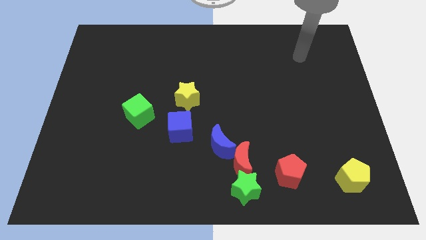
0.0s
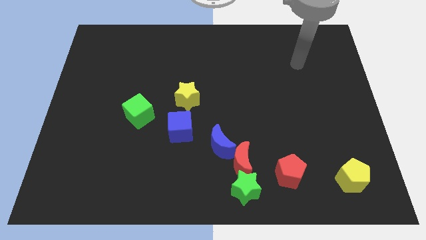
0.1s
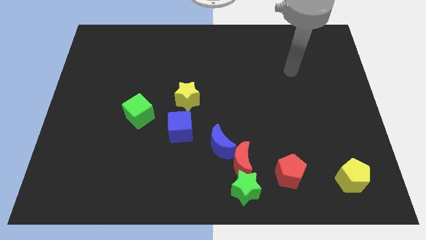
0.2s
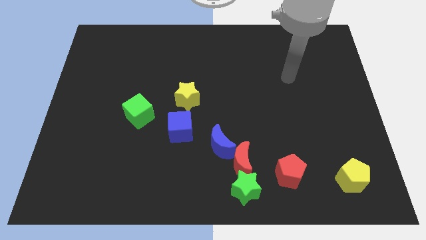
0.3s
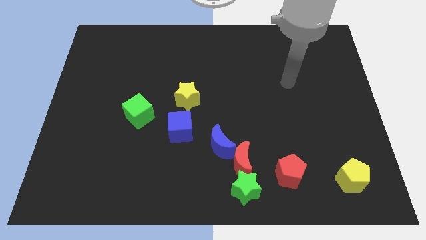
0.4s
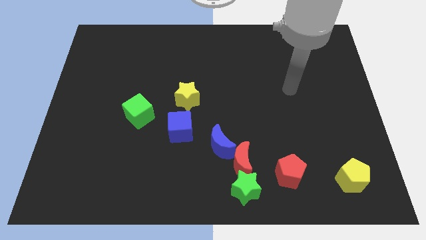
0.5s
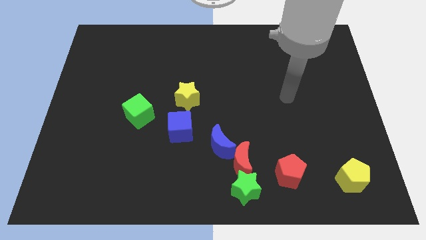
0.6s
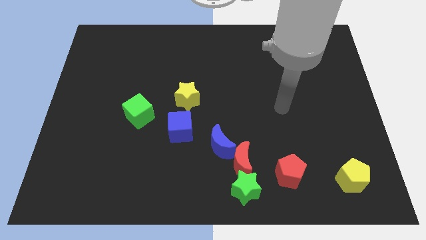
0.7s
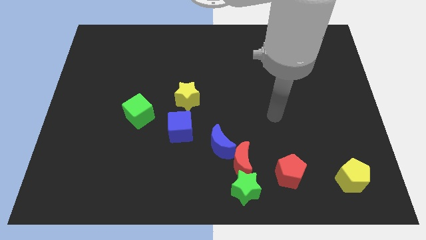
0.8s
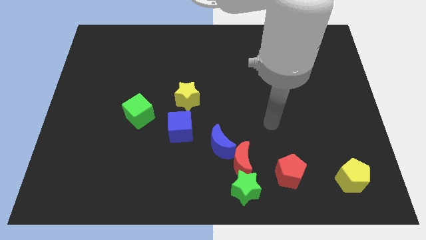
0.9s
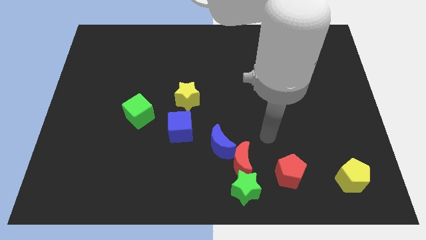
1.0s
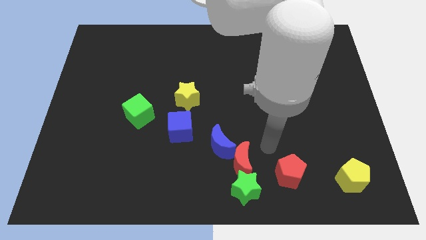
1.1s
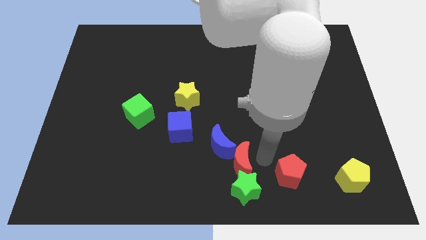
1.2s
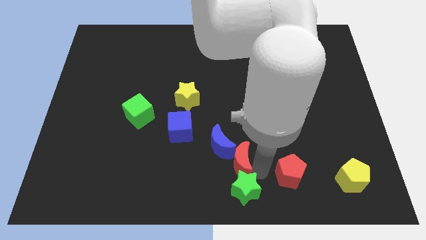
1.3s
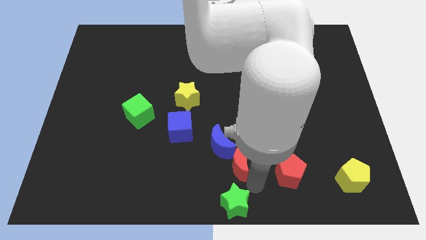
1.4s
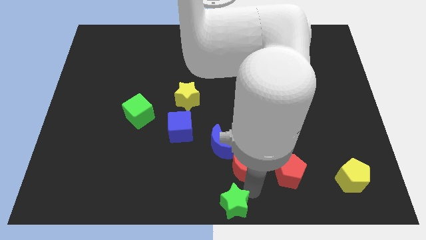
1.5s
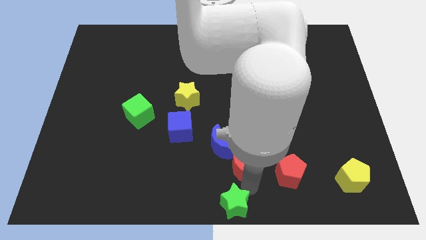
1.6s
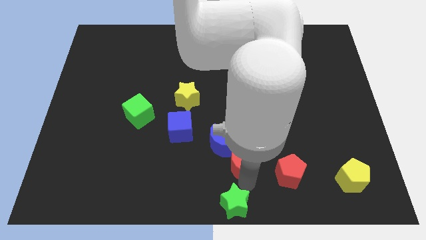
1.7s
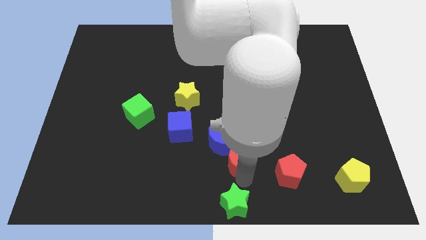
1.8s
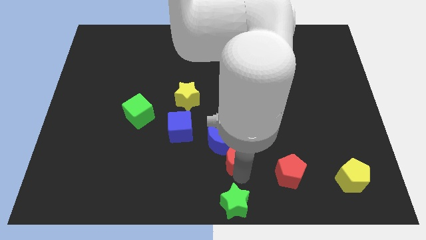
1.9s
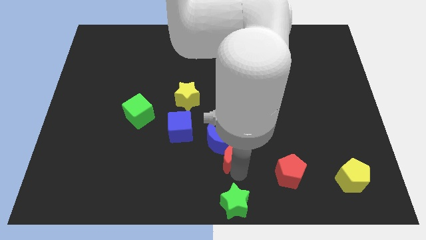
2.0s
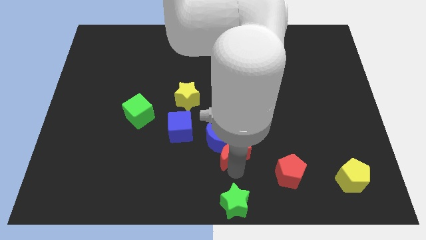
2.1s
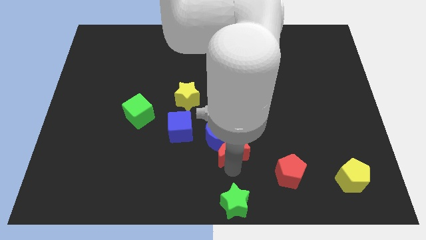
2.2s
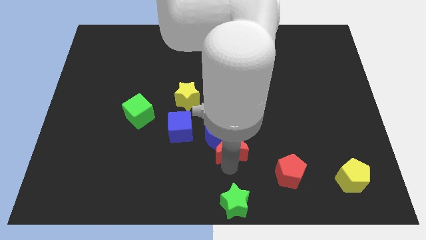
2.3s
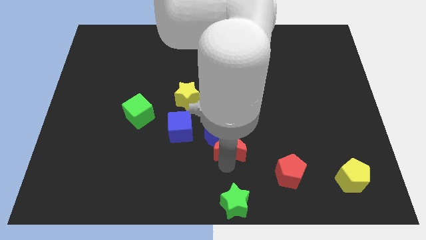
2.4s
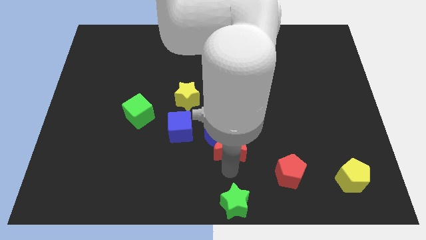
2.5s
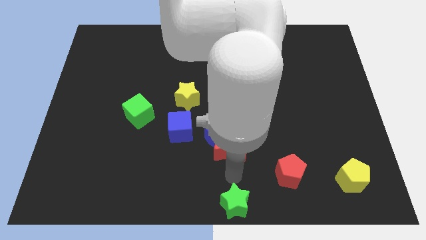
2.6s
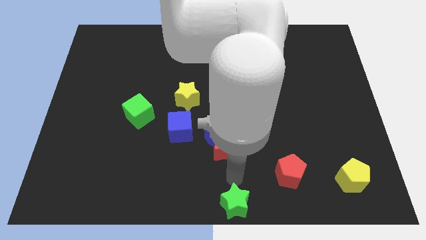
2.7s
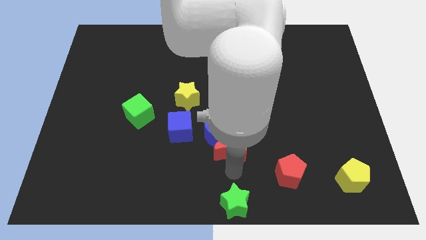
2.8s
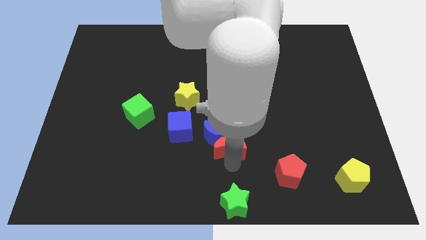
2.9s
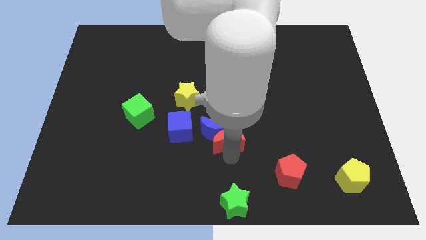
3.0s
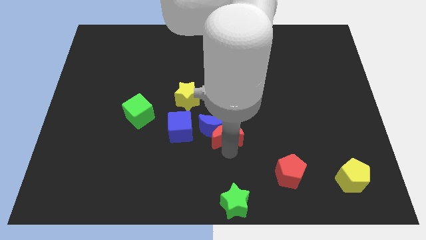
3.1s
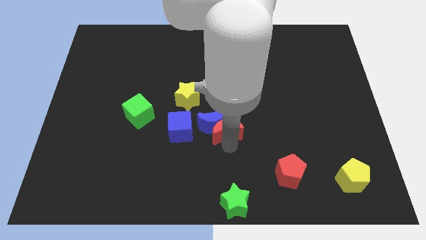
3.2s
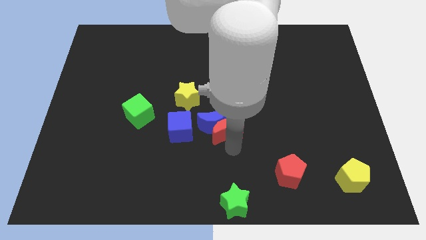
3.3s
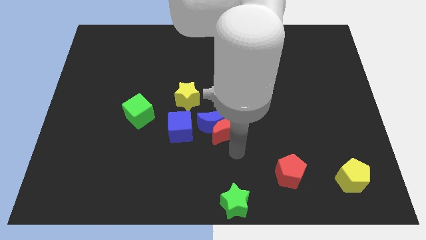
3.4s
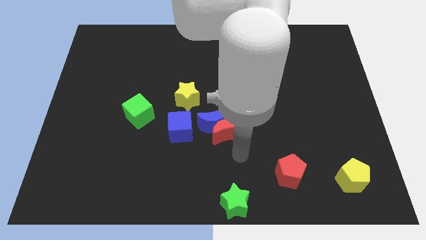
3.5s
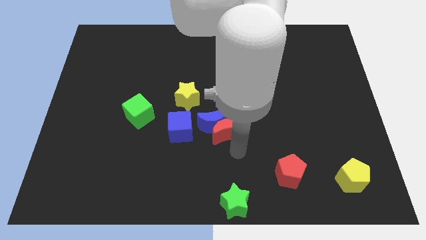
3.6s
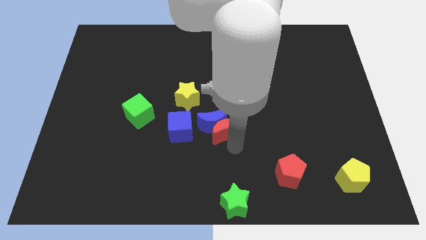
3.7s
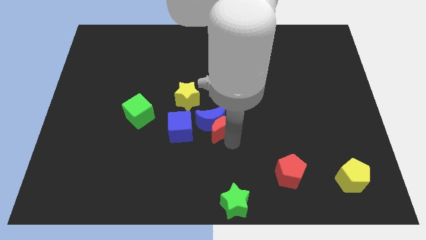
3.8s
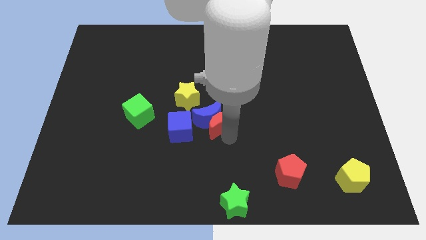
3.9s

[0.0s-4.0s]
move the red moon away from the group of blocks

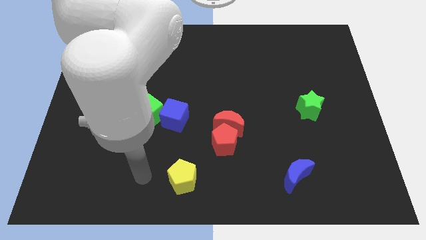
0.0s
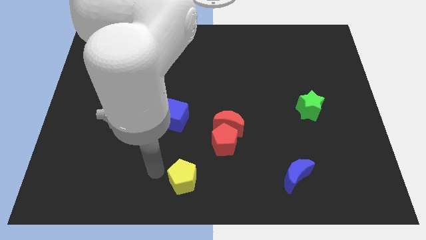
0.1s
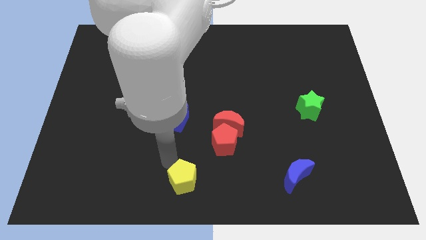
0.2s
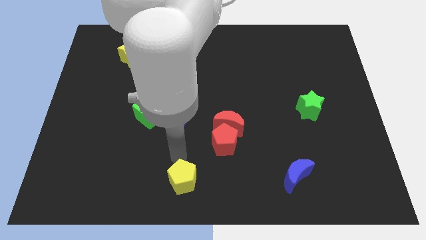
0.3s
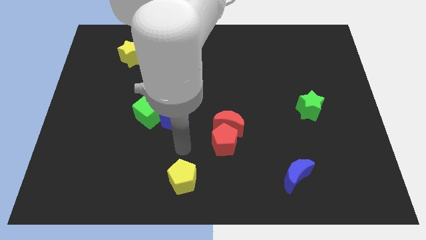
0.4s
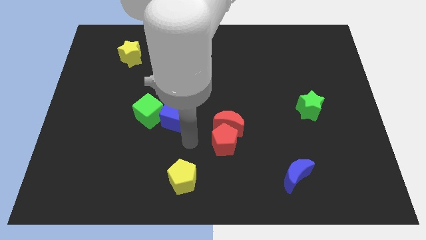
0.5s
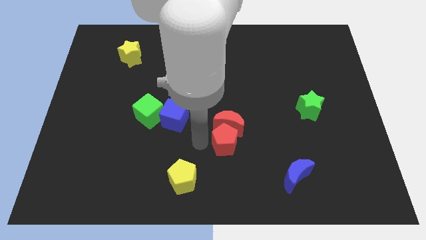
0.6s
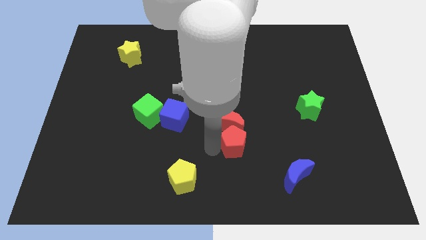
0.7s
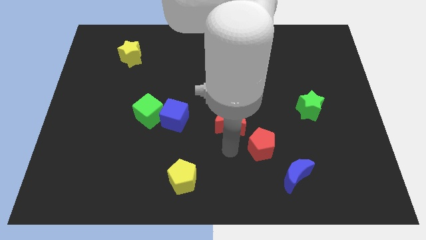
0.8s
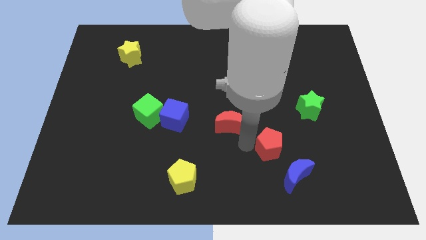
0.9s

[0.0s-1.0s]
move the red moon away from the red pentagon

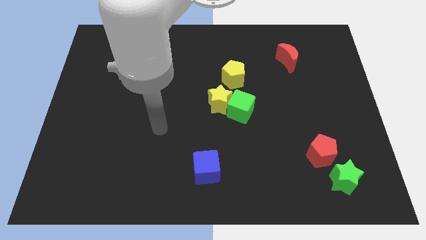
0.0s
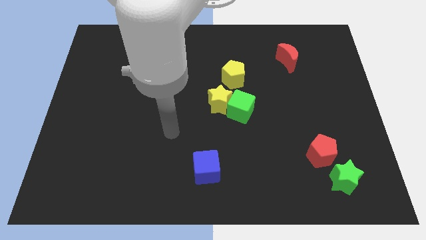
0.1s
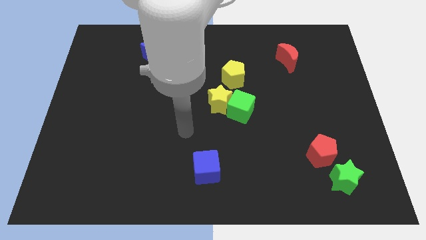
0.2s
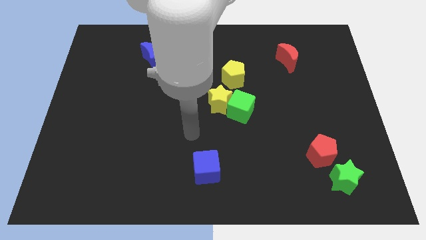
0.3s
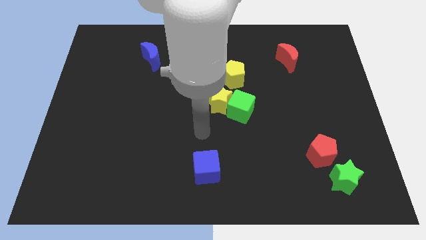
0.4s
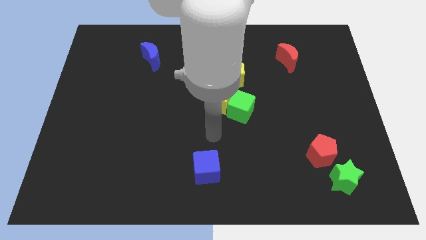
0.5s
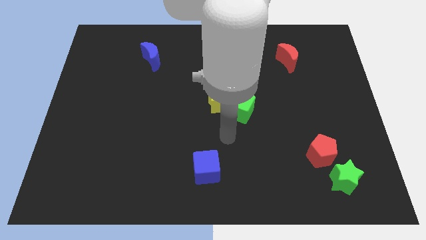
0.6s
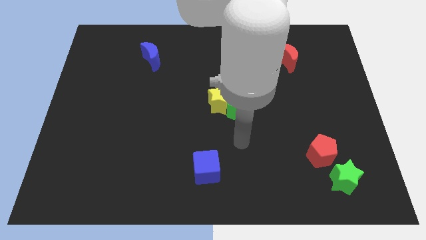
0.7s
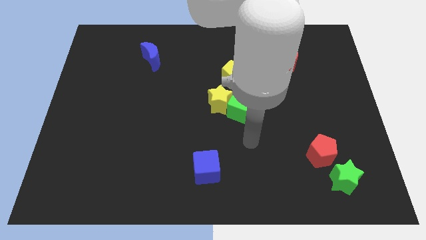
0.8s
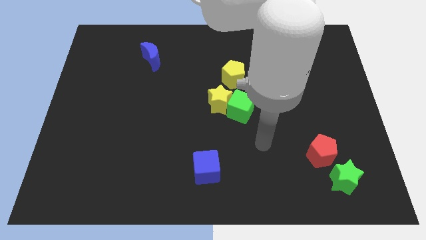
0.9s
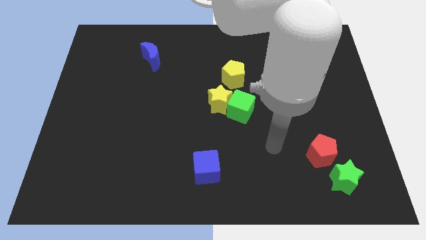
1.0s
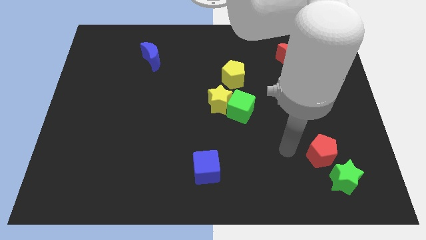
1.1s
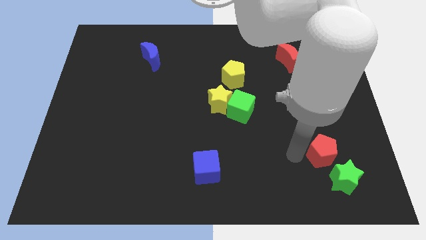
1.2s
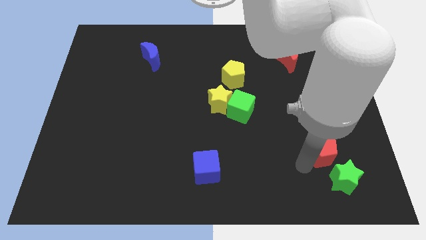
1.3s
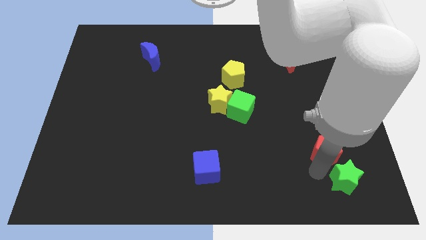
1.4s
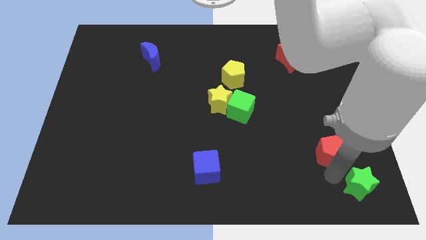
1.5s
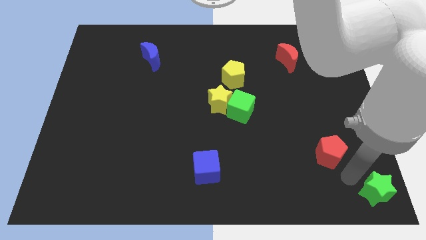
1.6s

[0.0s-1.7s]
separate the red pentagon from the green star

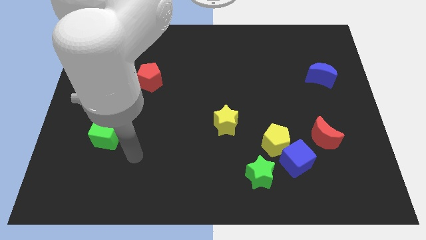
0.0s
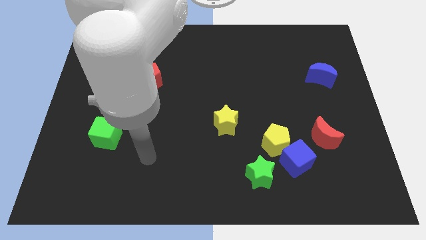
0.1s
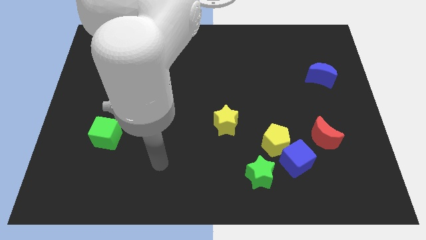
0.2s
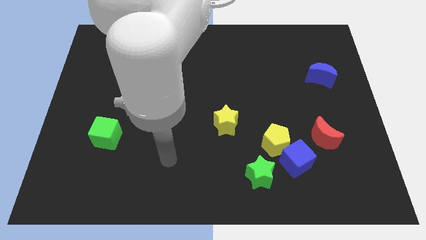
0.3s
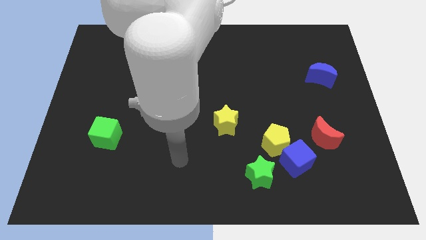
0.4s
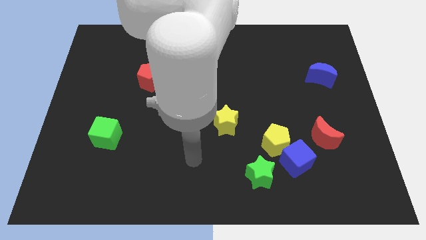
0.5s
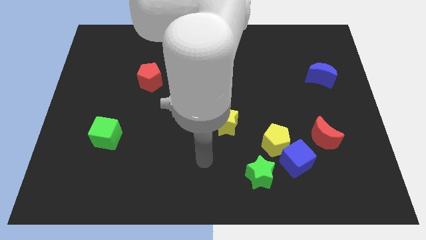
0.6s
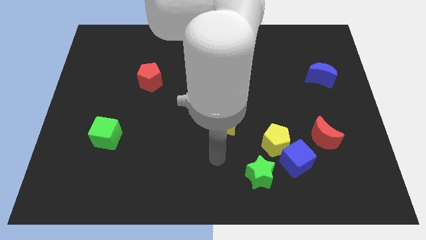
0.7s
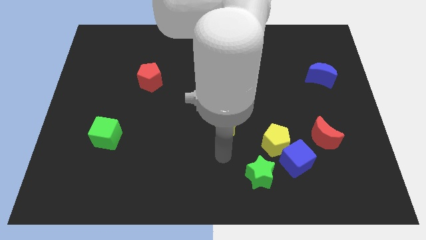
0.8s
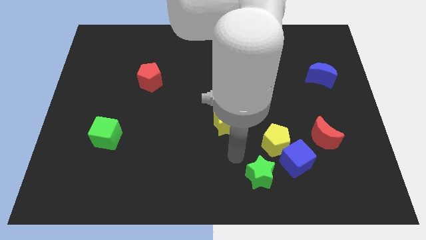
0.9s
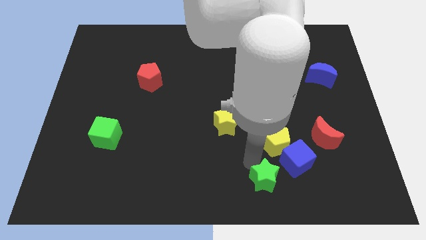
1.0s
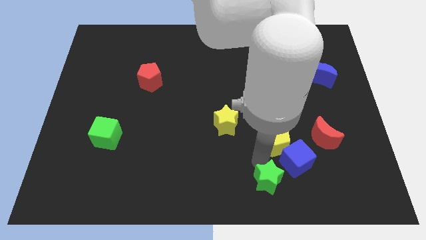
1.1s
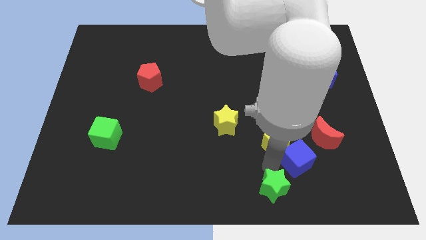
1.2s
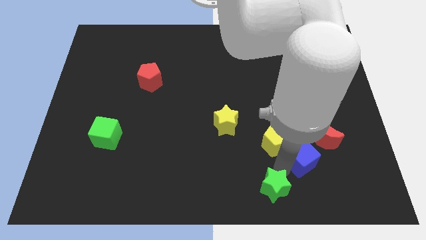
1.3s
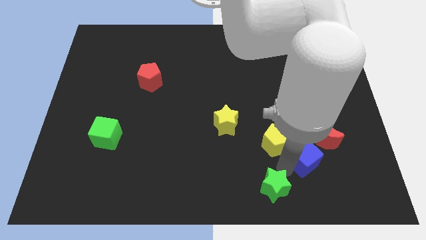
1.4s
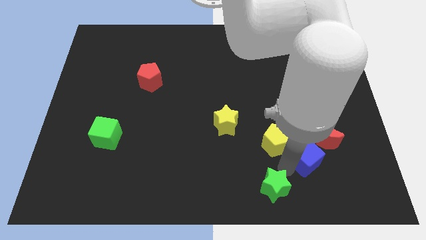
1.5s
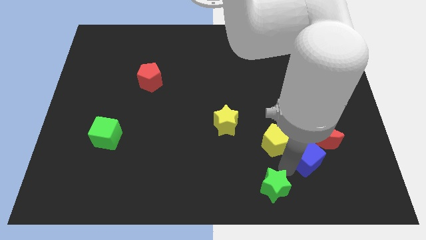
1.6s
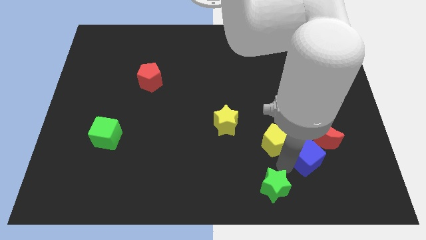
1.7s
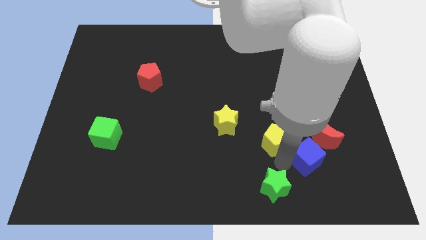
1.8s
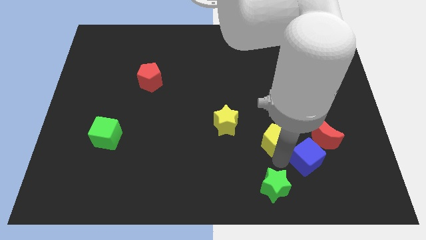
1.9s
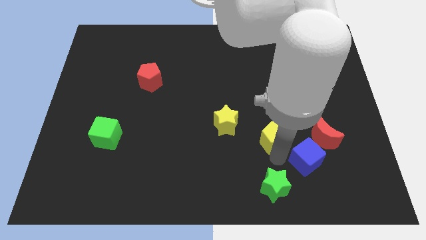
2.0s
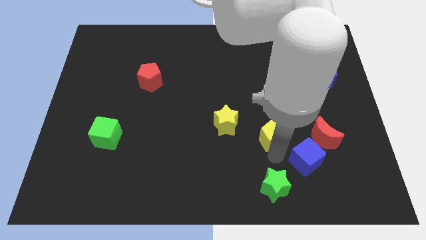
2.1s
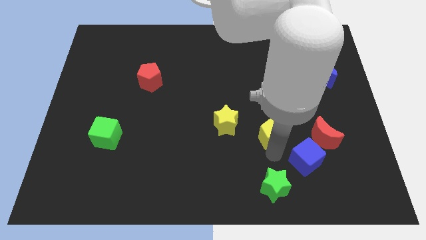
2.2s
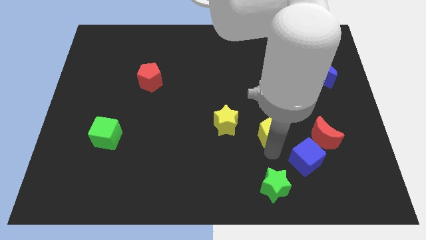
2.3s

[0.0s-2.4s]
separate the yellow pentagon from the blue cube and green star

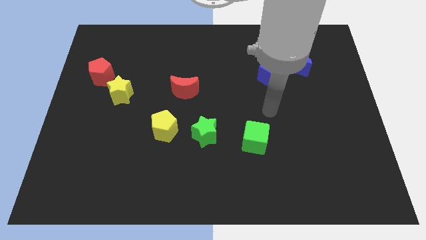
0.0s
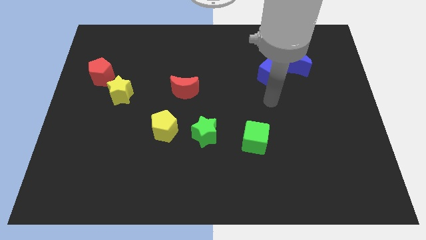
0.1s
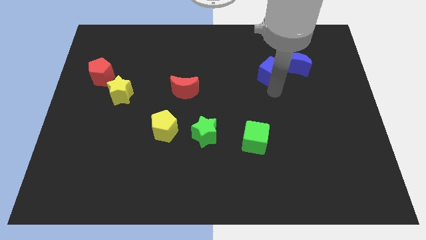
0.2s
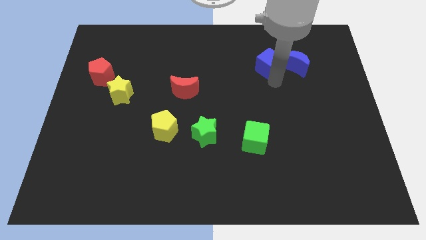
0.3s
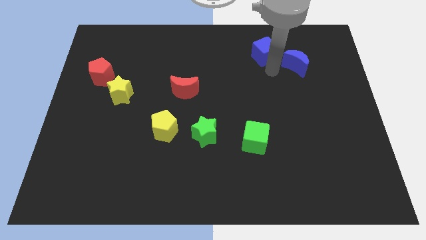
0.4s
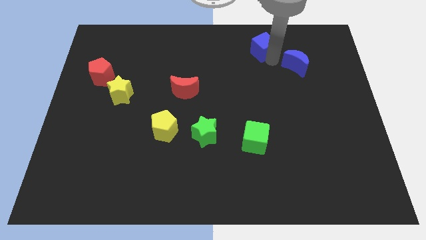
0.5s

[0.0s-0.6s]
pull the blue moon apart from the blue cube
